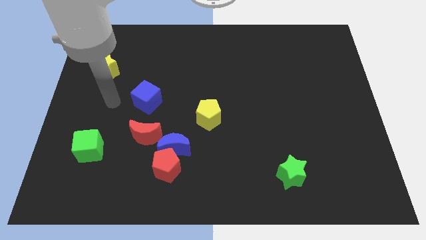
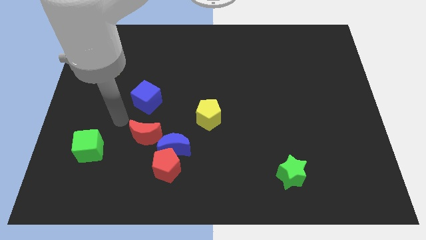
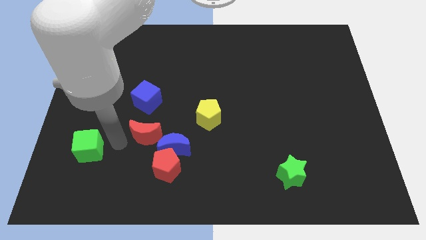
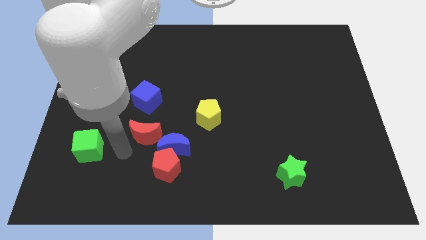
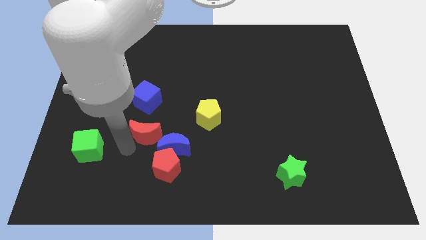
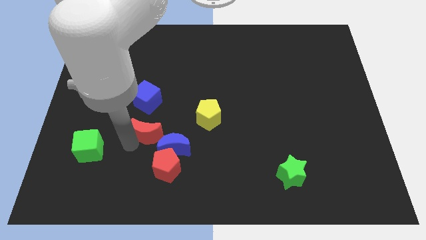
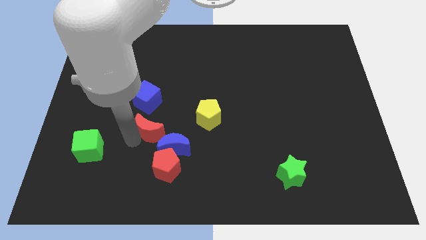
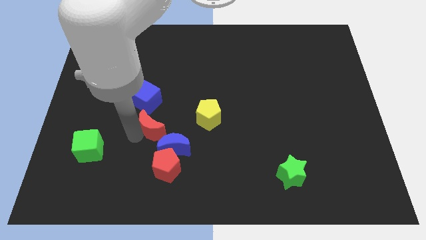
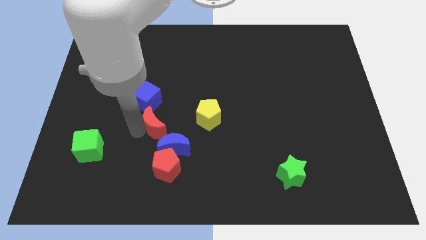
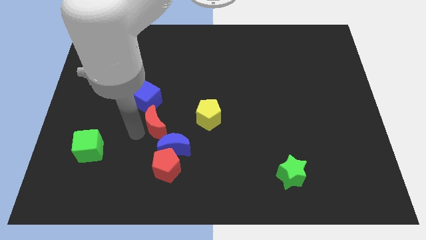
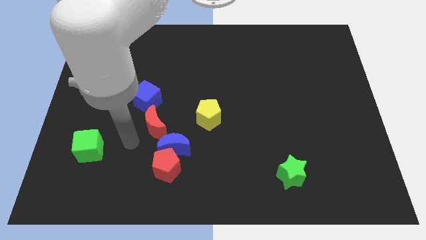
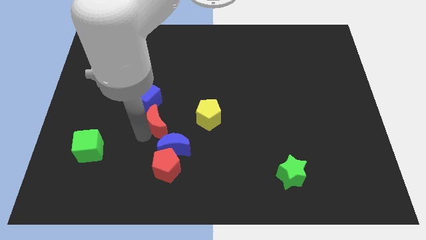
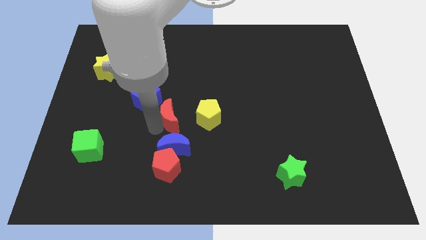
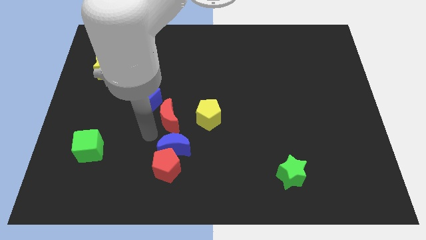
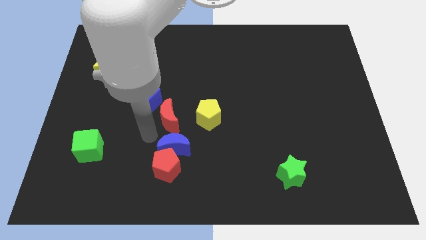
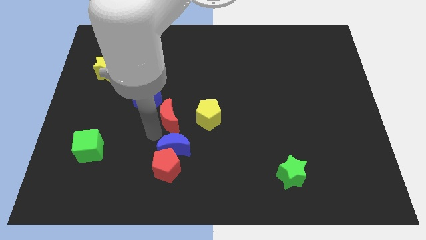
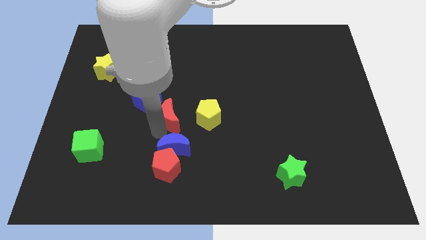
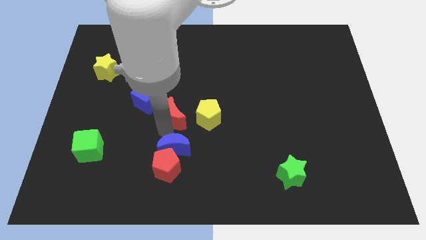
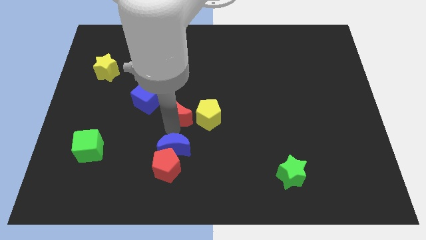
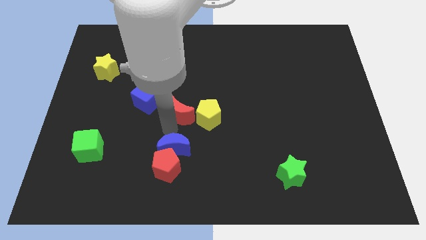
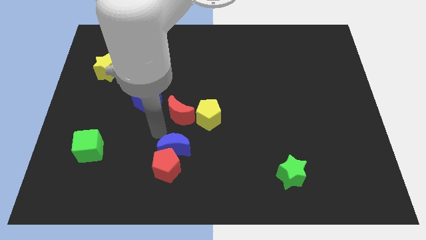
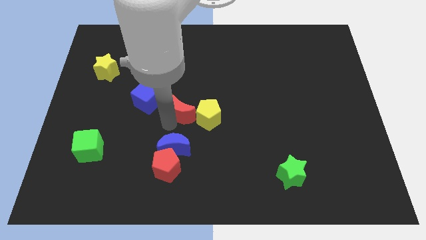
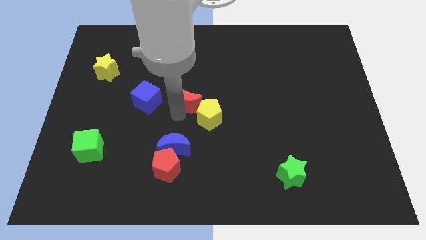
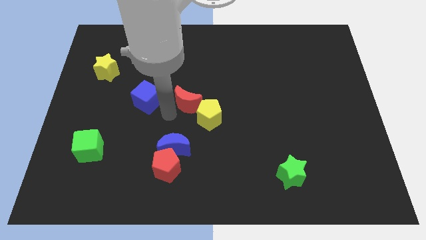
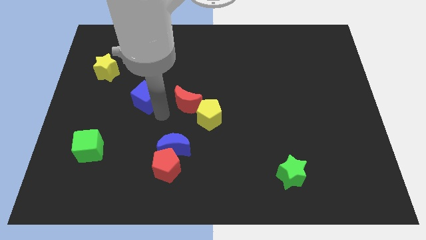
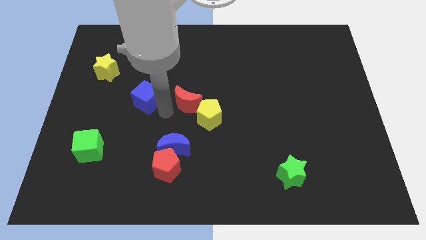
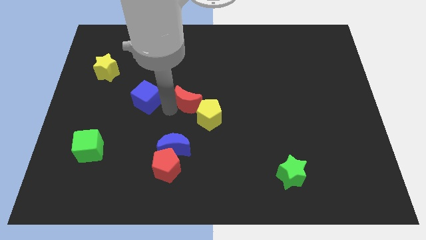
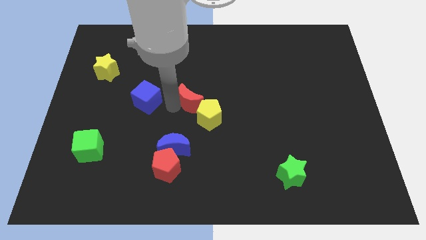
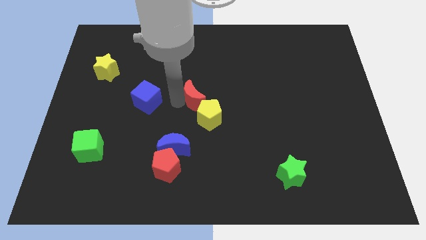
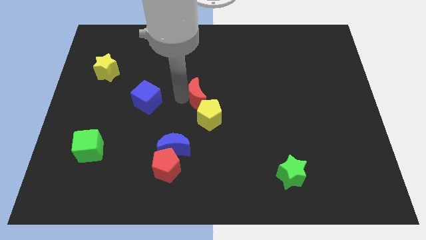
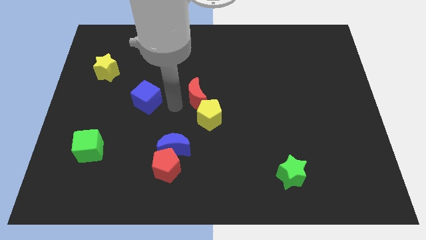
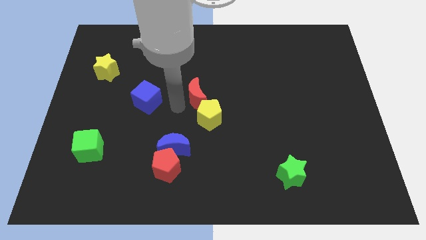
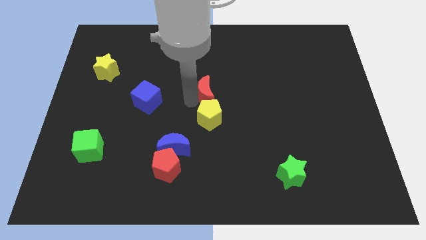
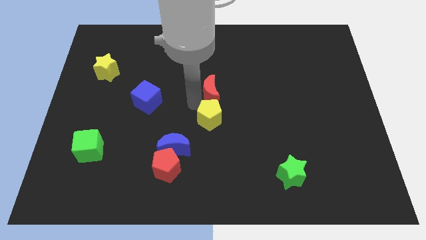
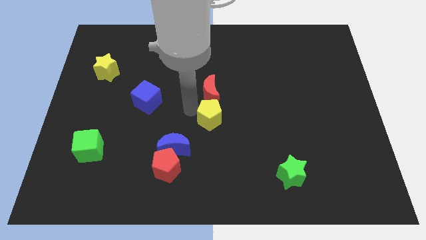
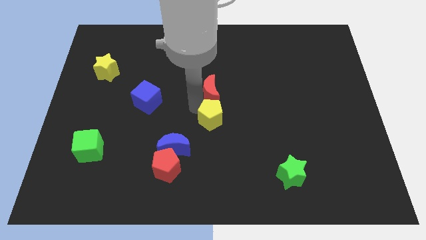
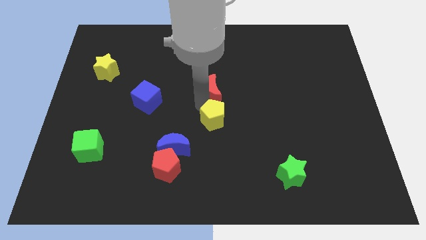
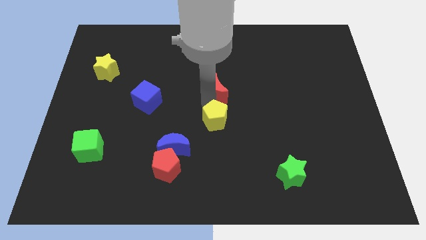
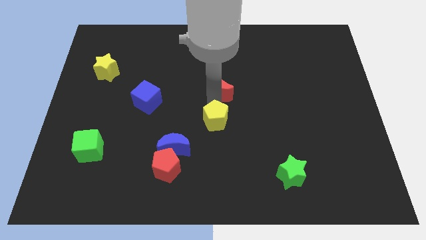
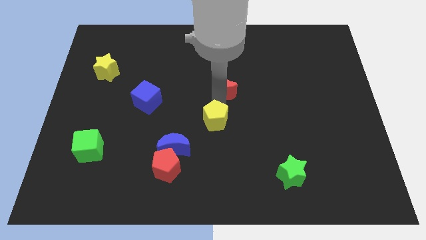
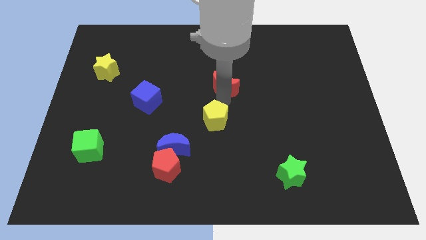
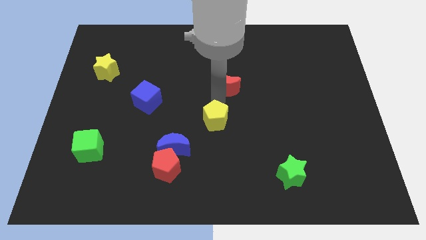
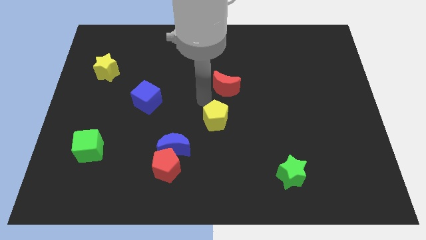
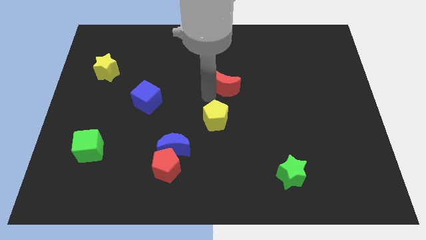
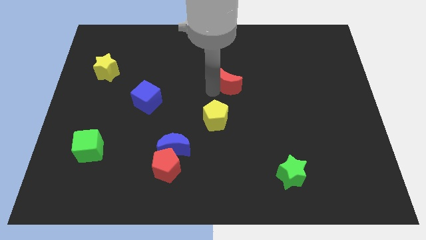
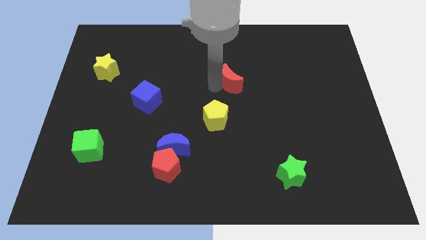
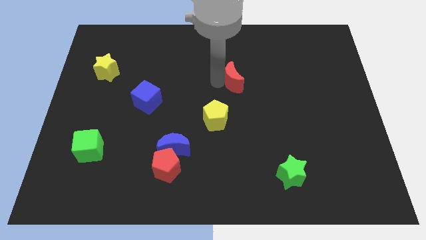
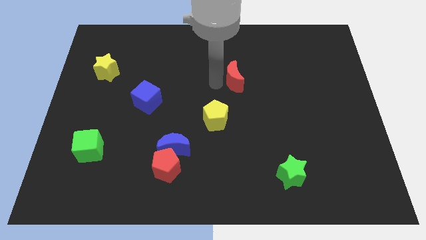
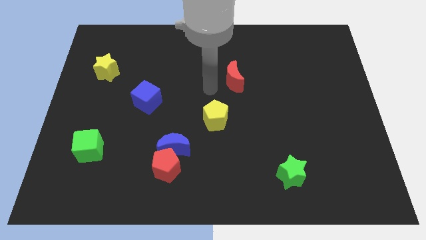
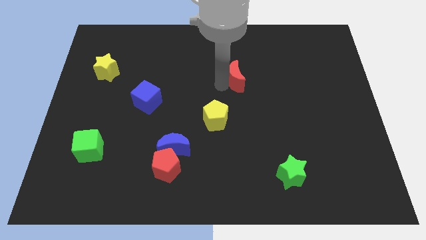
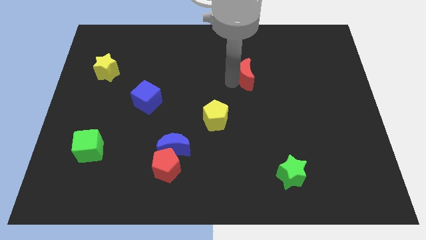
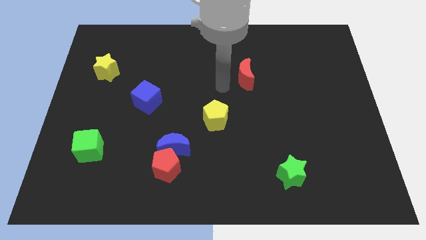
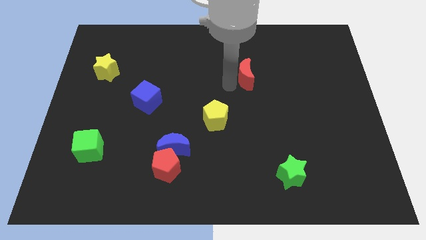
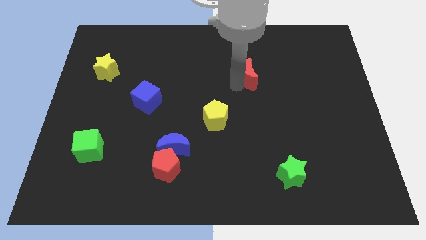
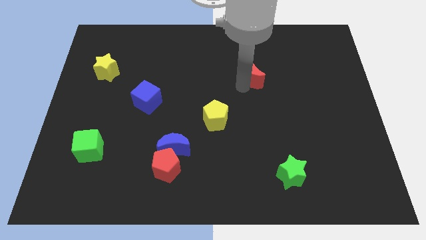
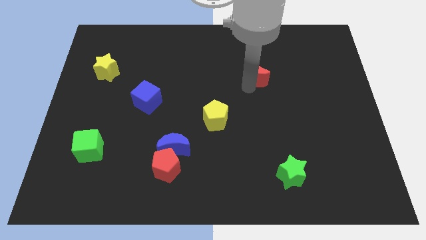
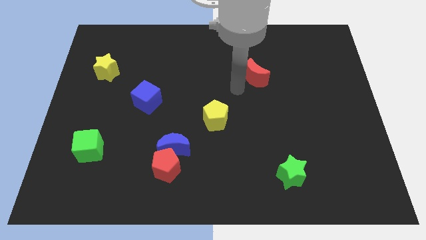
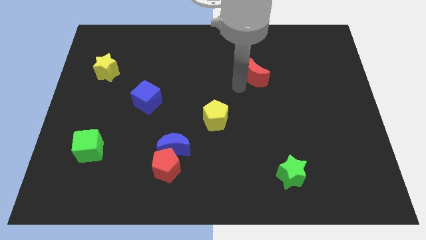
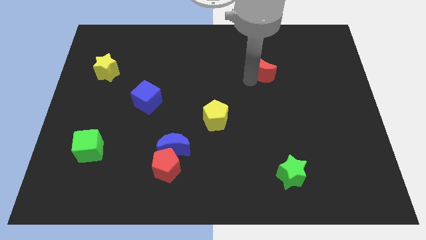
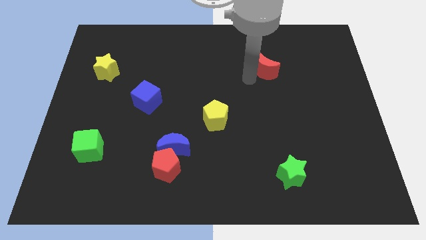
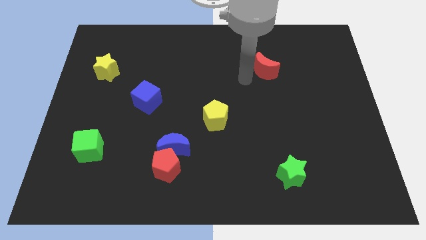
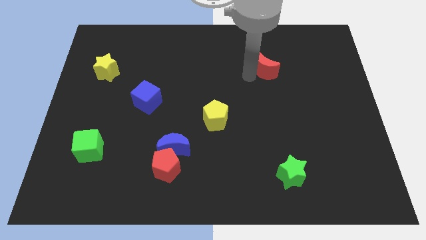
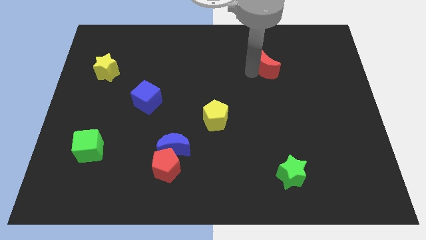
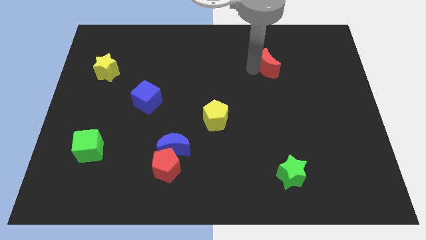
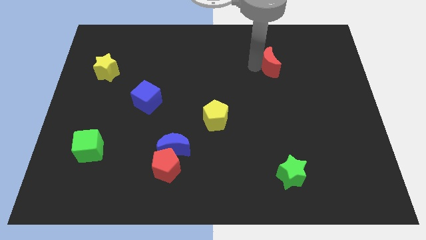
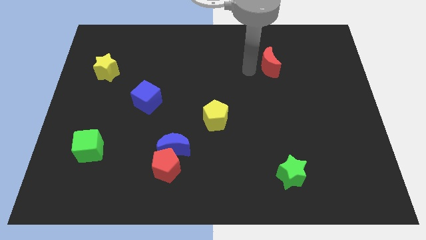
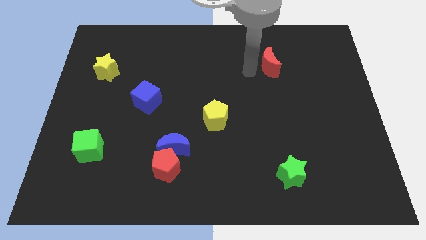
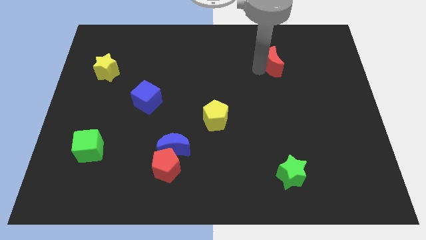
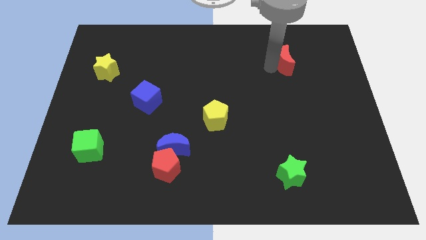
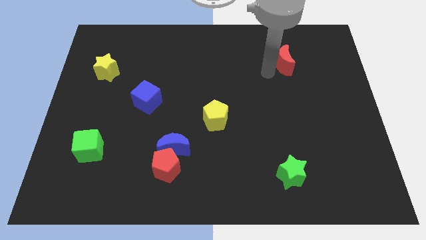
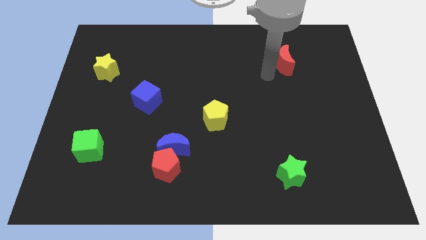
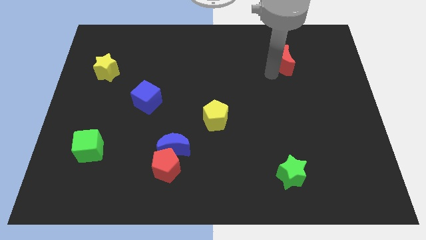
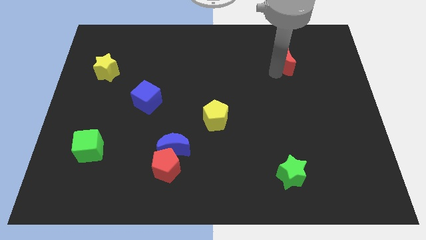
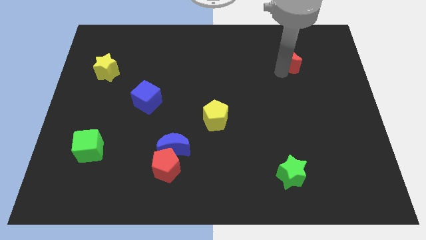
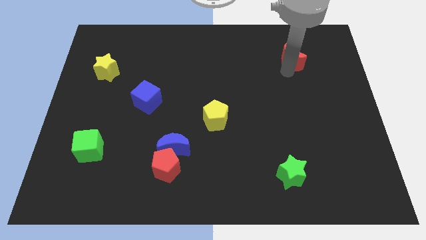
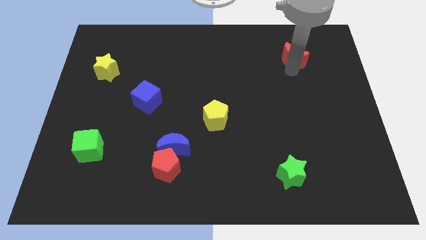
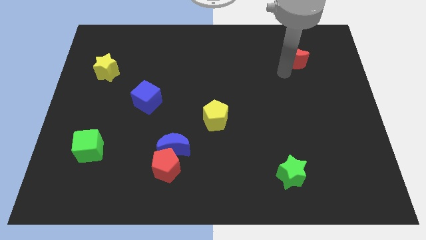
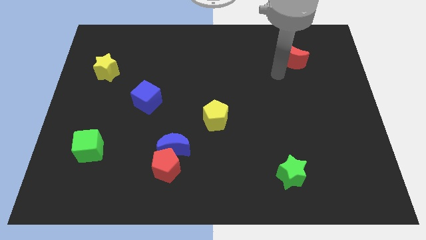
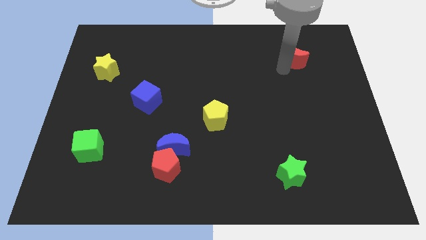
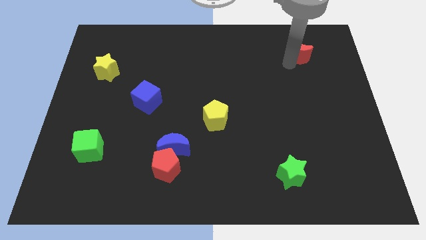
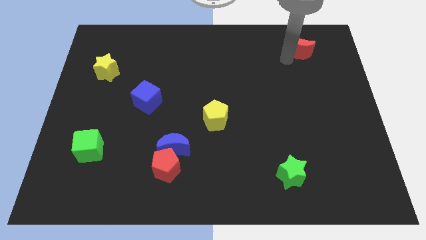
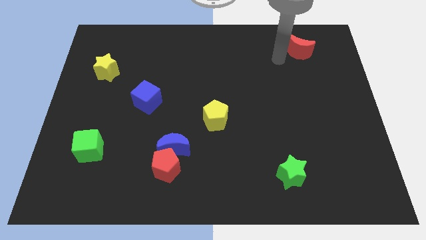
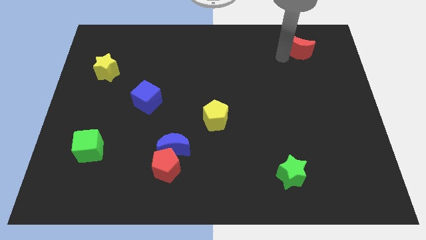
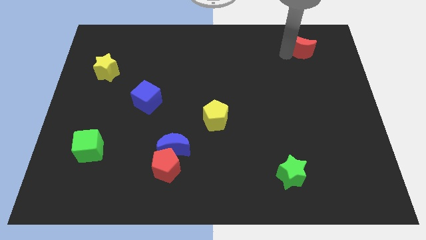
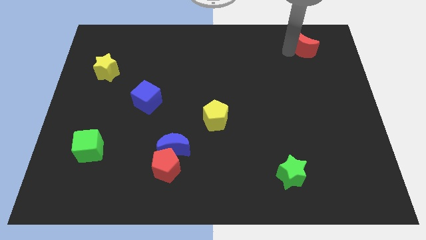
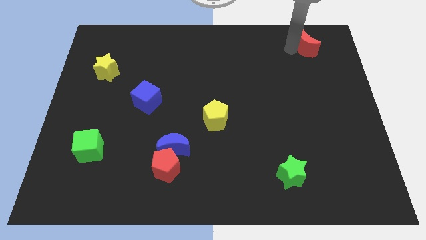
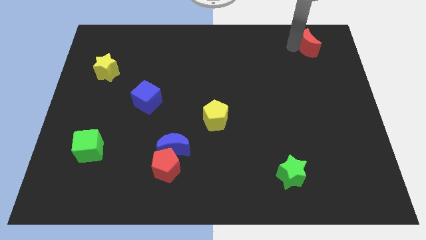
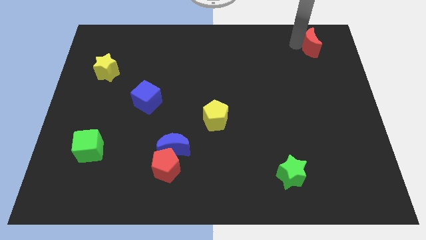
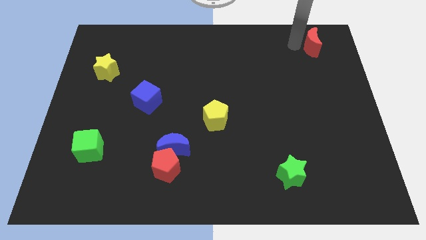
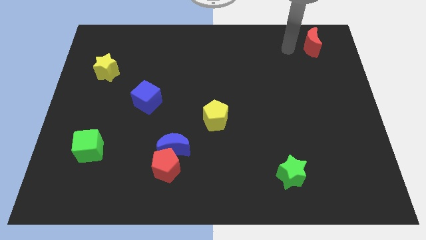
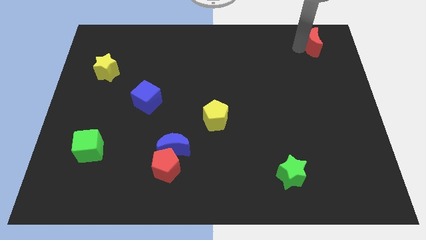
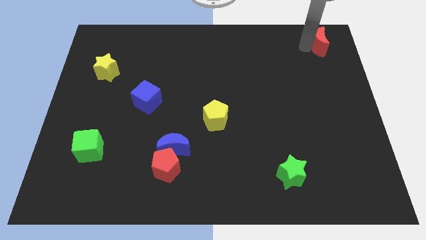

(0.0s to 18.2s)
slide the red moon to the top right corner
